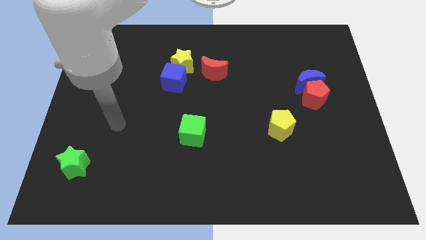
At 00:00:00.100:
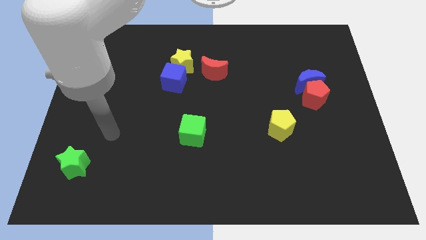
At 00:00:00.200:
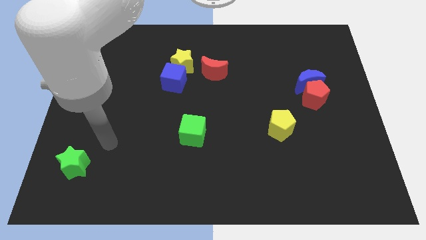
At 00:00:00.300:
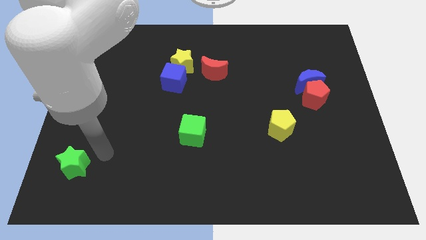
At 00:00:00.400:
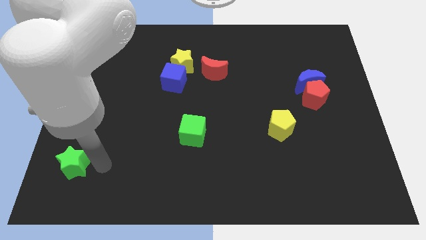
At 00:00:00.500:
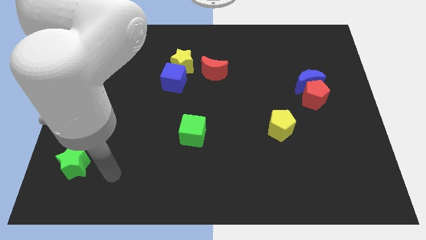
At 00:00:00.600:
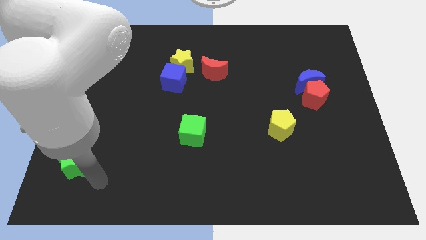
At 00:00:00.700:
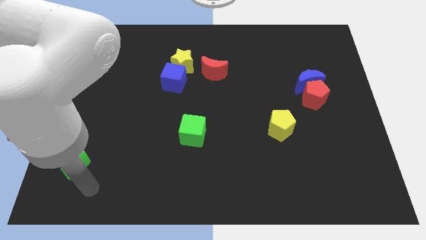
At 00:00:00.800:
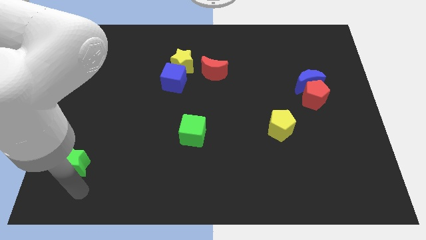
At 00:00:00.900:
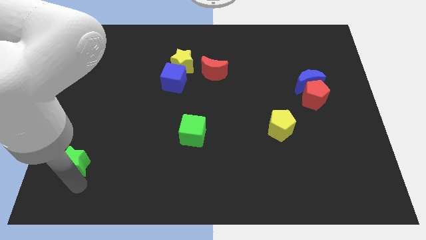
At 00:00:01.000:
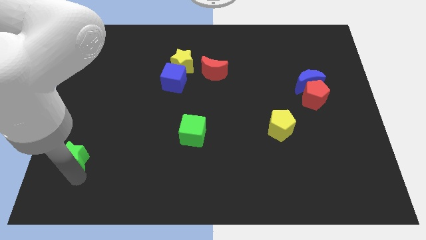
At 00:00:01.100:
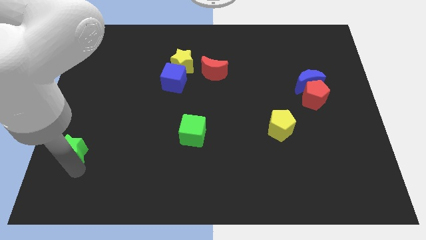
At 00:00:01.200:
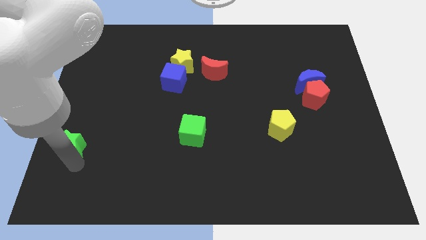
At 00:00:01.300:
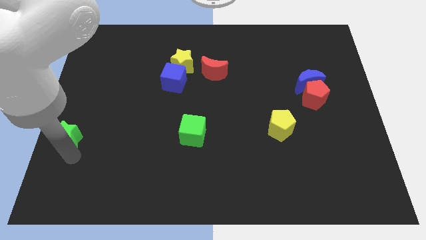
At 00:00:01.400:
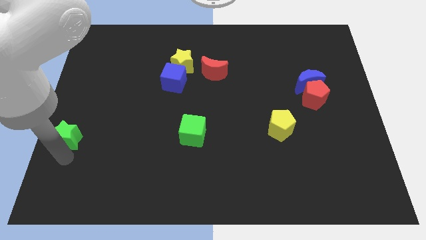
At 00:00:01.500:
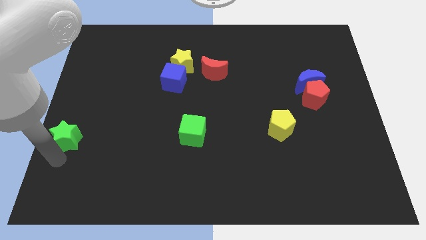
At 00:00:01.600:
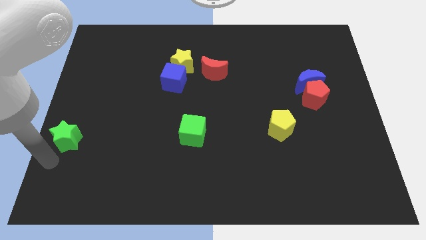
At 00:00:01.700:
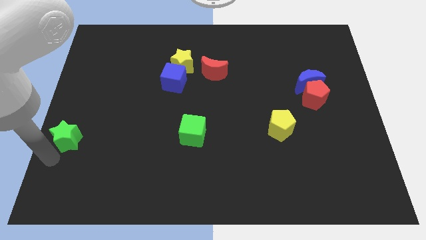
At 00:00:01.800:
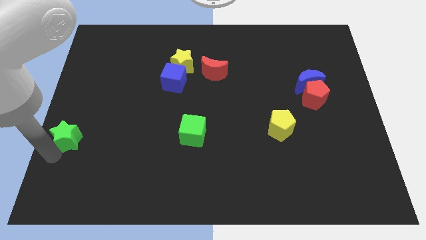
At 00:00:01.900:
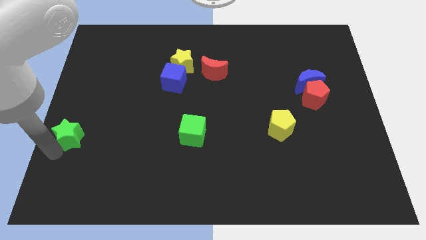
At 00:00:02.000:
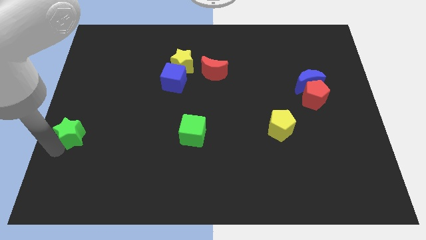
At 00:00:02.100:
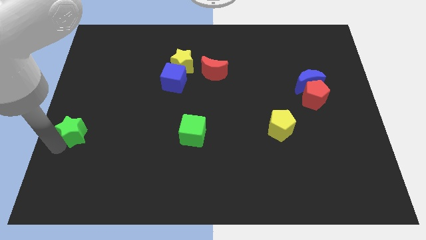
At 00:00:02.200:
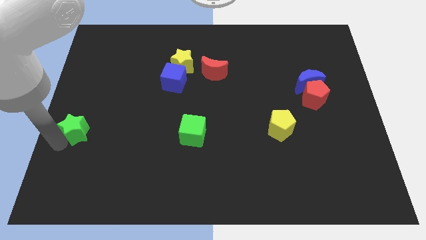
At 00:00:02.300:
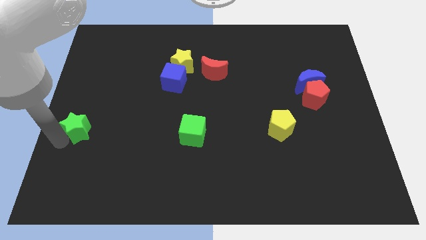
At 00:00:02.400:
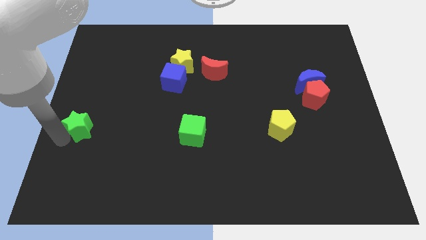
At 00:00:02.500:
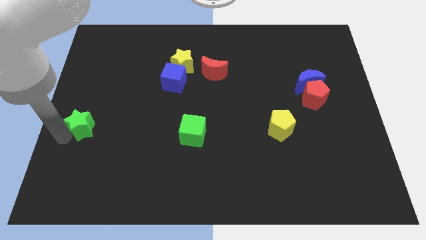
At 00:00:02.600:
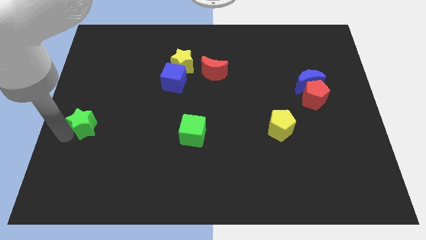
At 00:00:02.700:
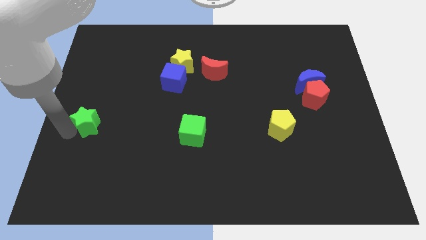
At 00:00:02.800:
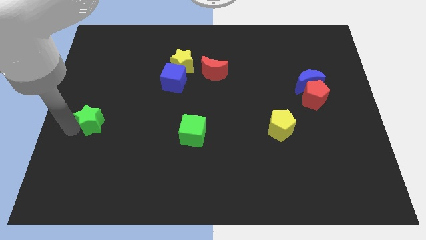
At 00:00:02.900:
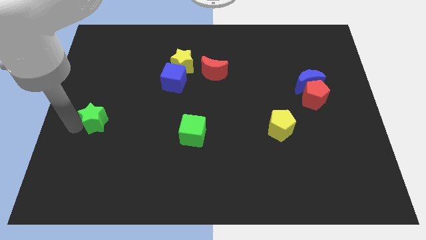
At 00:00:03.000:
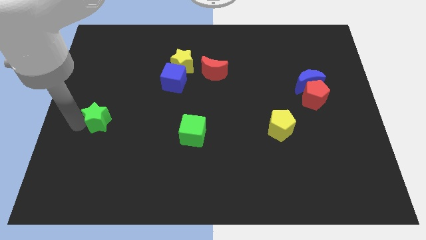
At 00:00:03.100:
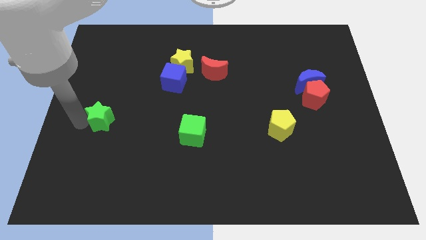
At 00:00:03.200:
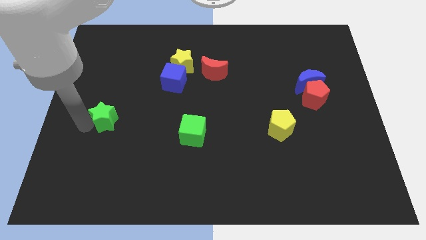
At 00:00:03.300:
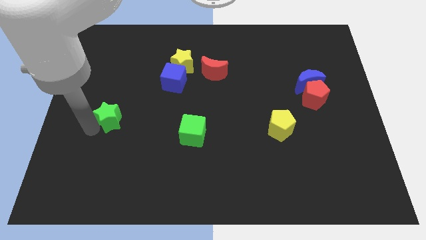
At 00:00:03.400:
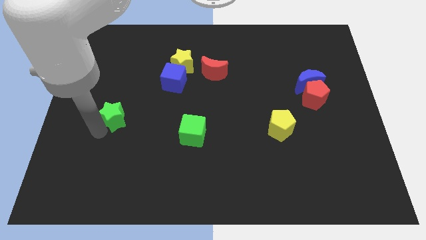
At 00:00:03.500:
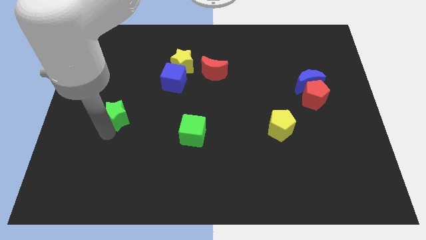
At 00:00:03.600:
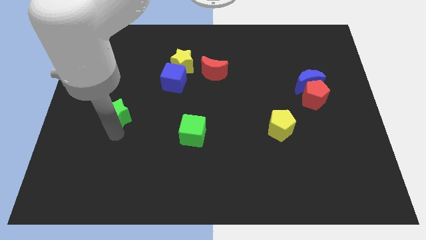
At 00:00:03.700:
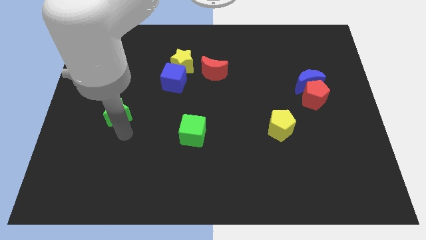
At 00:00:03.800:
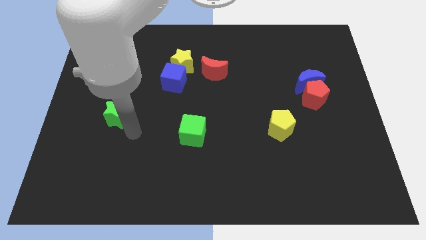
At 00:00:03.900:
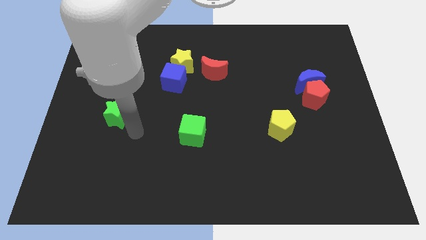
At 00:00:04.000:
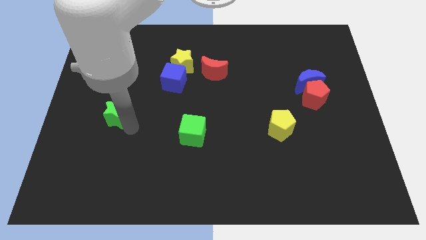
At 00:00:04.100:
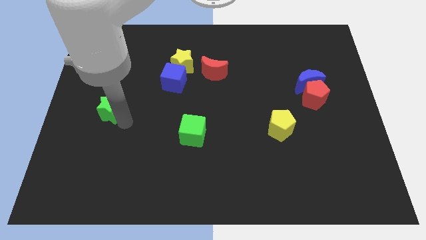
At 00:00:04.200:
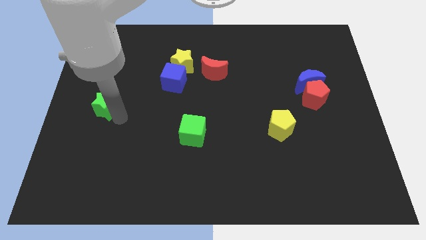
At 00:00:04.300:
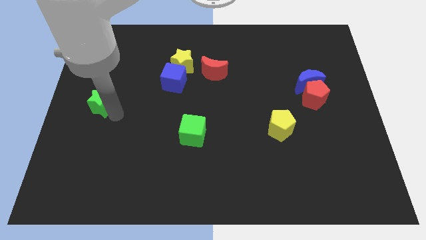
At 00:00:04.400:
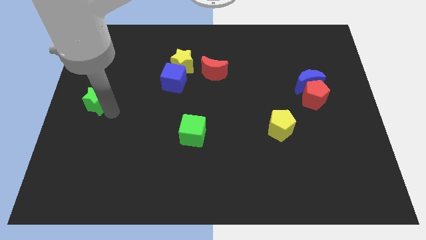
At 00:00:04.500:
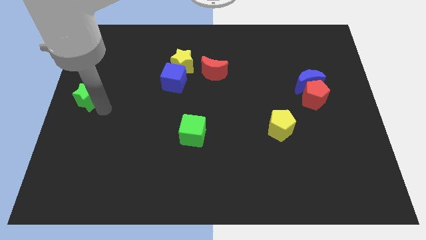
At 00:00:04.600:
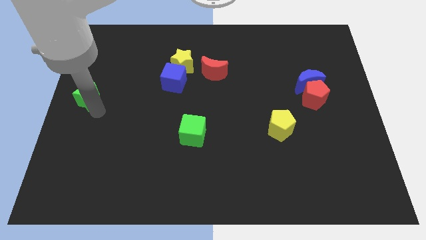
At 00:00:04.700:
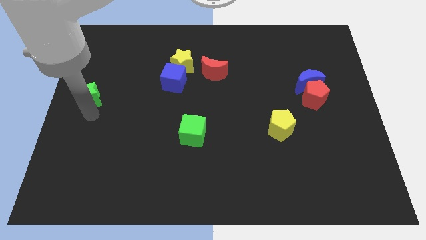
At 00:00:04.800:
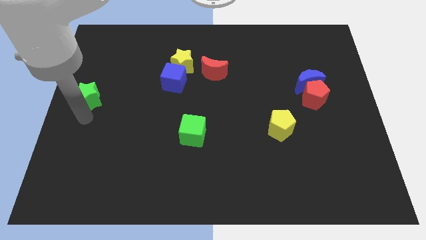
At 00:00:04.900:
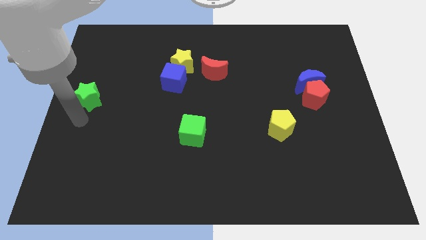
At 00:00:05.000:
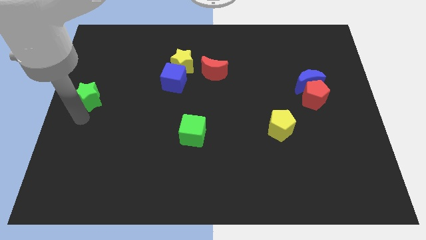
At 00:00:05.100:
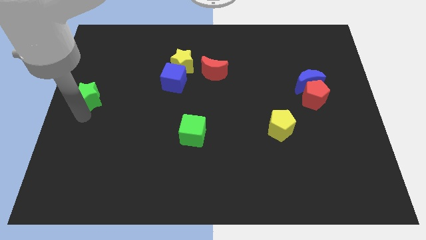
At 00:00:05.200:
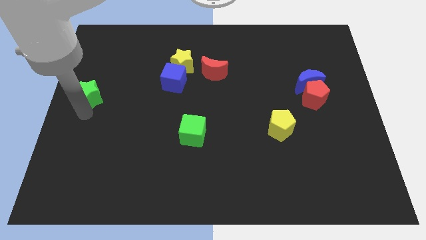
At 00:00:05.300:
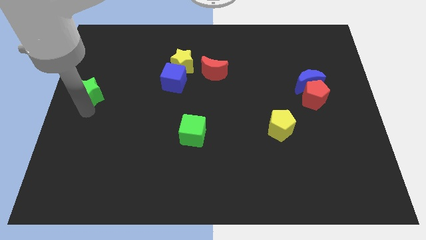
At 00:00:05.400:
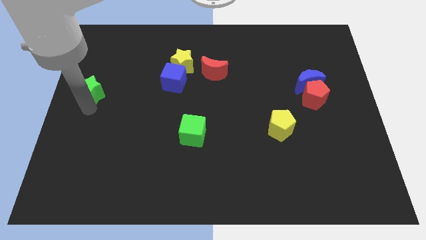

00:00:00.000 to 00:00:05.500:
push the green star upwards

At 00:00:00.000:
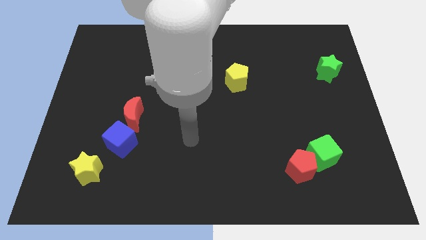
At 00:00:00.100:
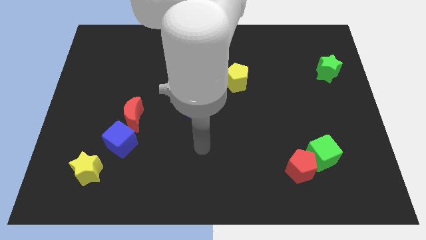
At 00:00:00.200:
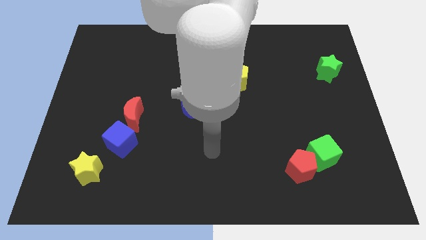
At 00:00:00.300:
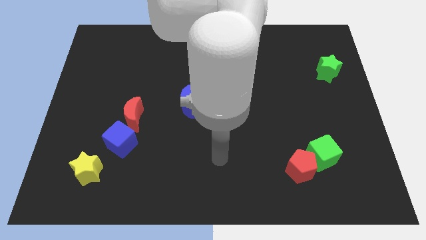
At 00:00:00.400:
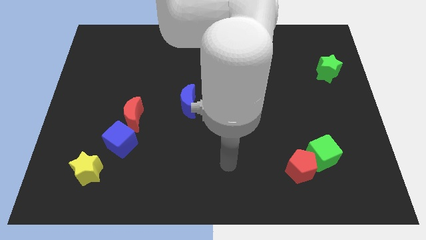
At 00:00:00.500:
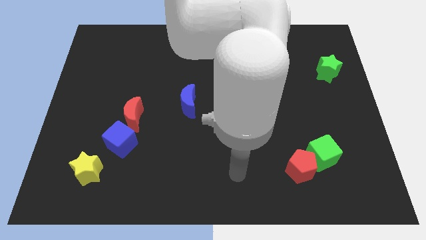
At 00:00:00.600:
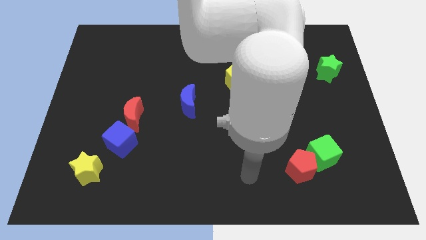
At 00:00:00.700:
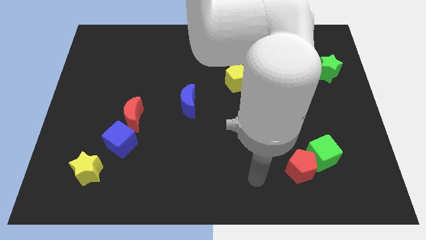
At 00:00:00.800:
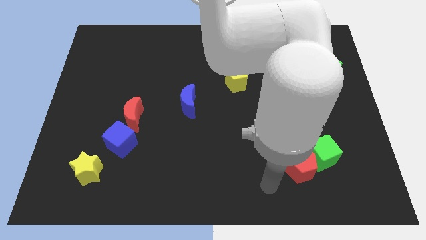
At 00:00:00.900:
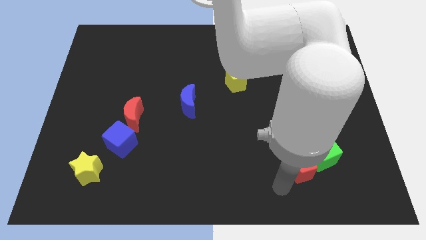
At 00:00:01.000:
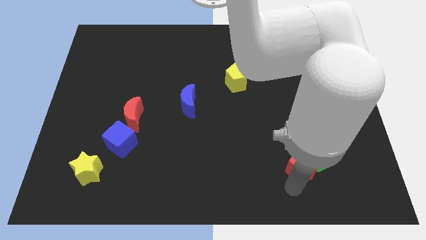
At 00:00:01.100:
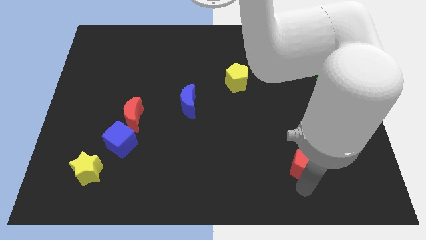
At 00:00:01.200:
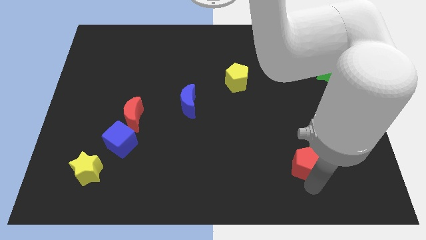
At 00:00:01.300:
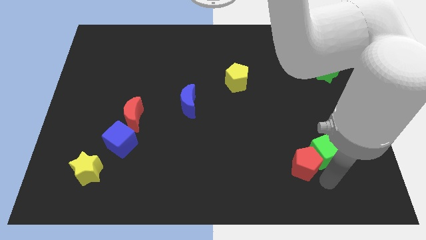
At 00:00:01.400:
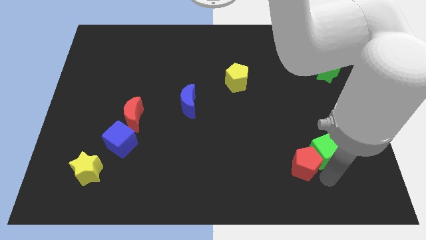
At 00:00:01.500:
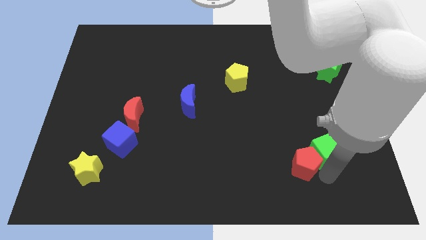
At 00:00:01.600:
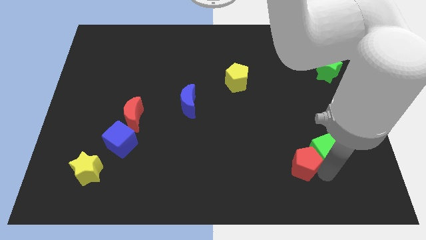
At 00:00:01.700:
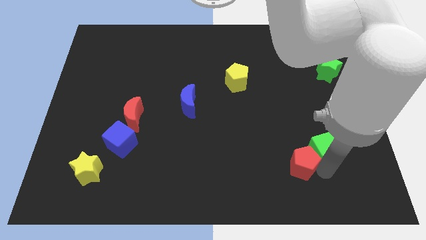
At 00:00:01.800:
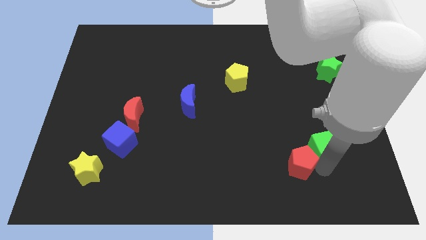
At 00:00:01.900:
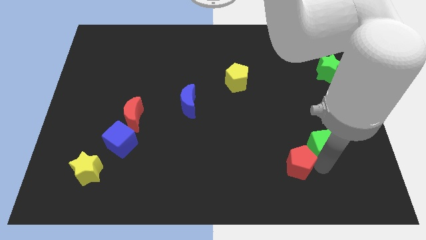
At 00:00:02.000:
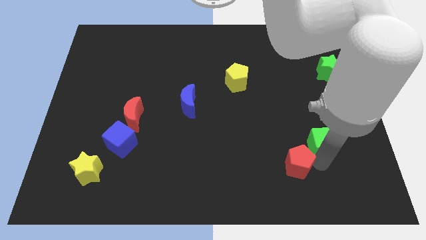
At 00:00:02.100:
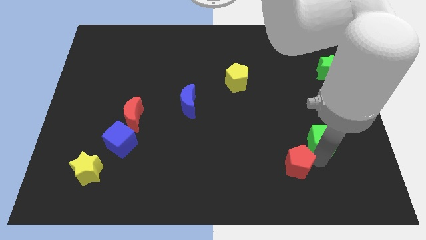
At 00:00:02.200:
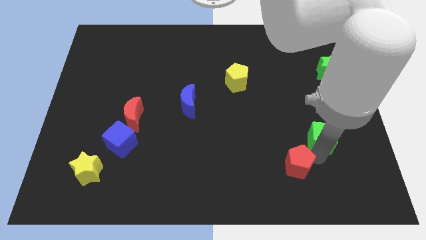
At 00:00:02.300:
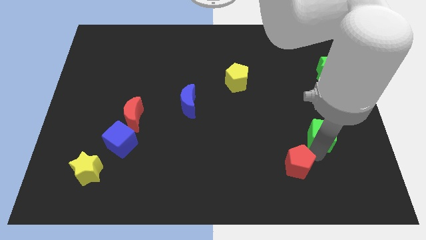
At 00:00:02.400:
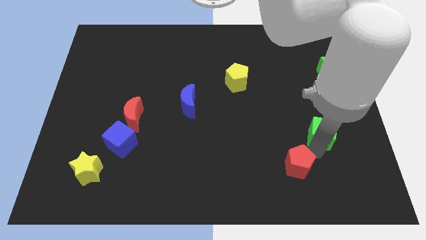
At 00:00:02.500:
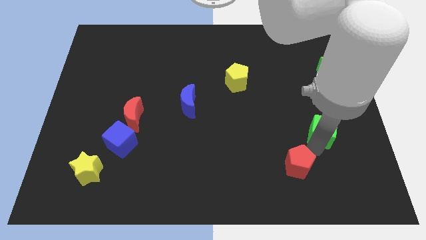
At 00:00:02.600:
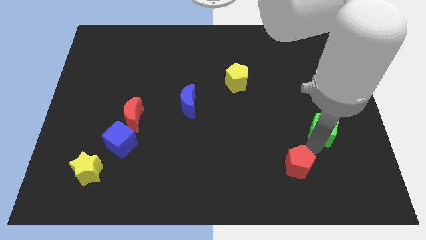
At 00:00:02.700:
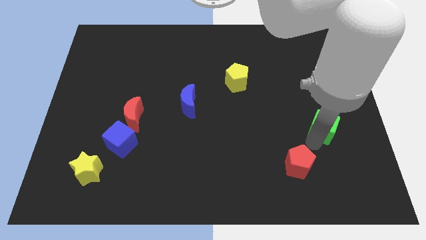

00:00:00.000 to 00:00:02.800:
push the green cube upwards a bit
